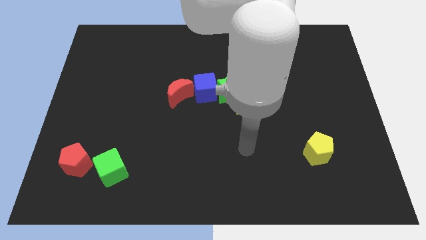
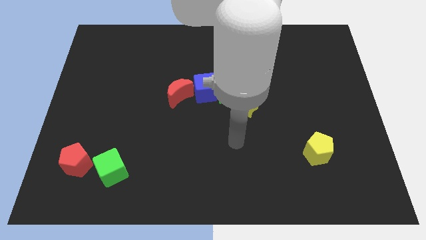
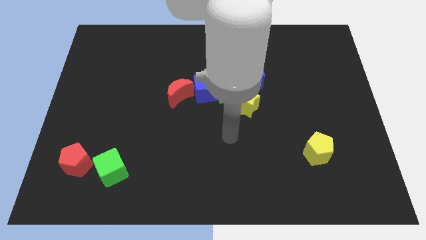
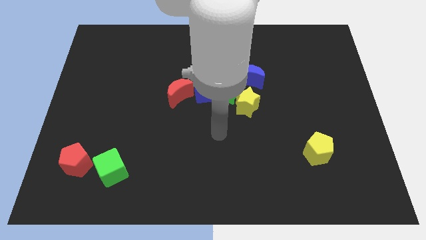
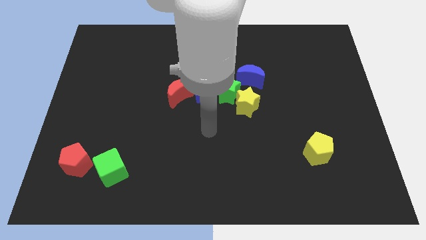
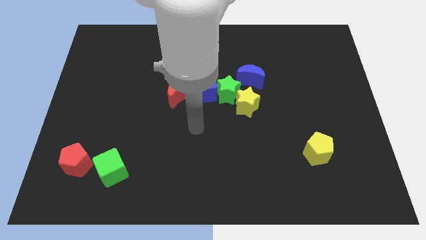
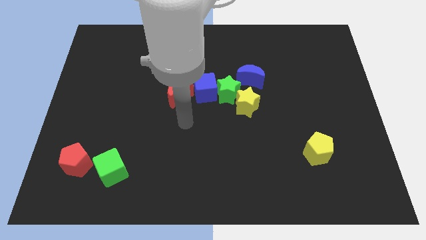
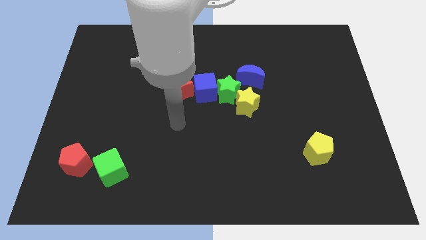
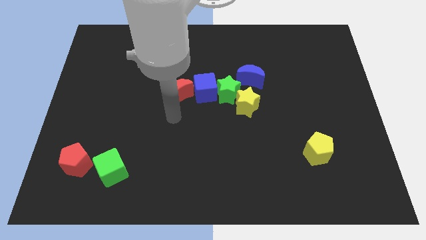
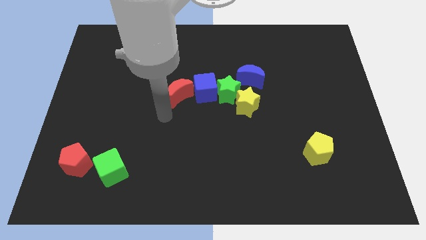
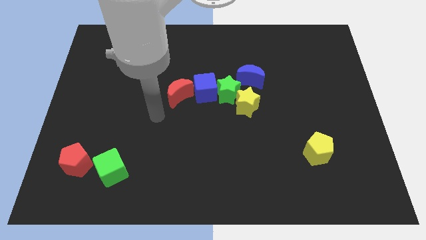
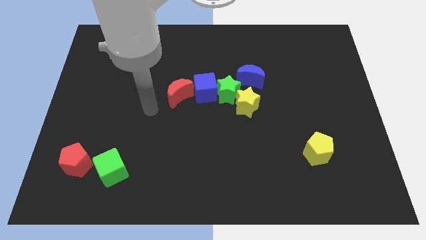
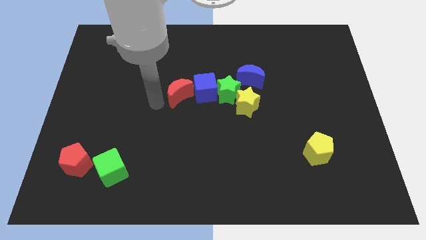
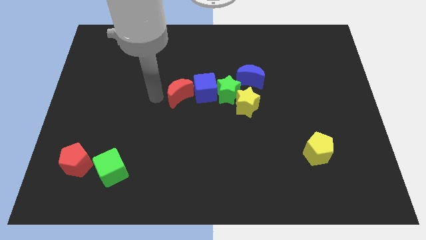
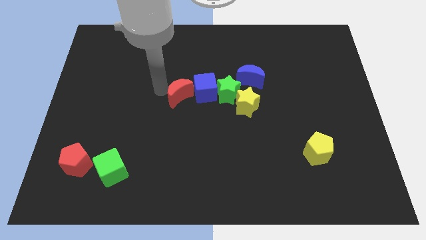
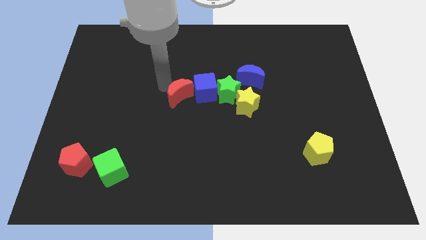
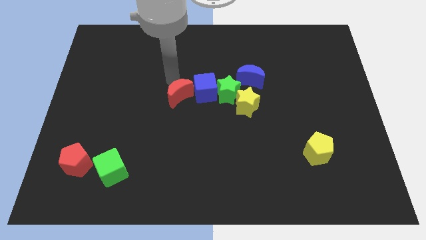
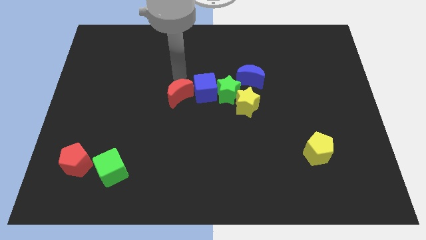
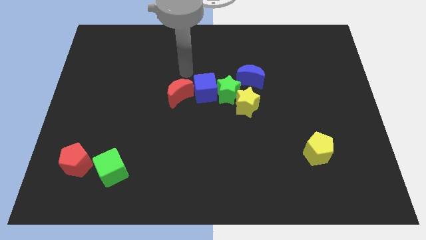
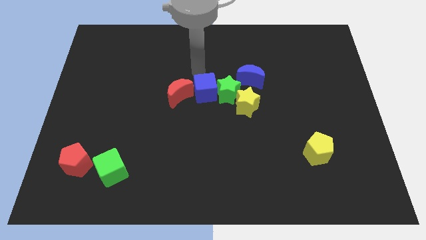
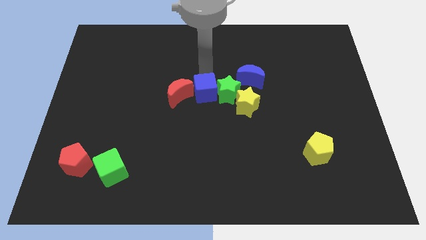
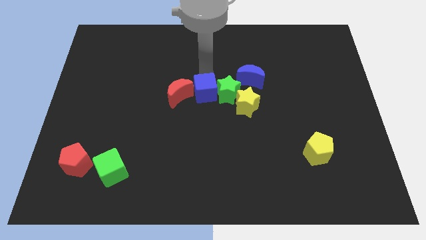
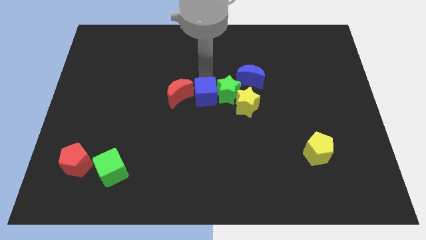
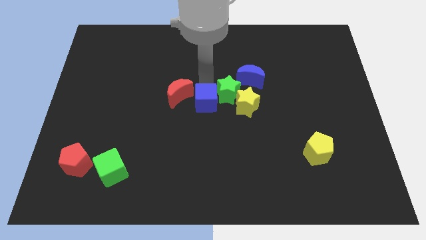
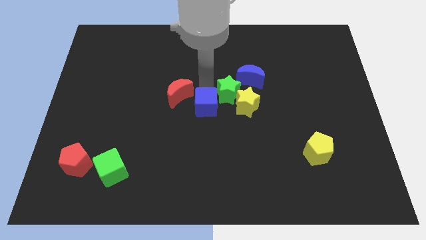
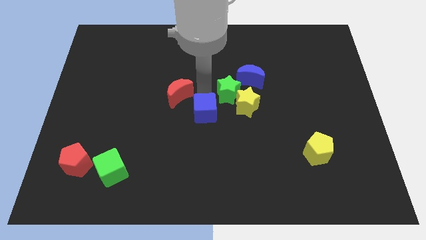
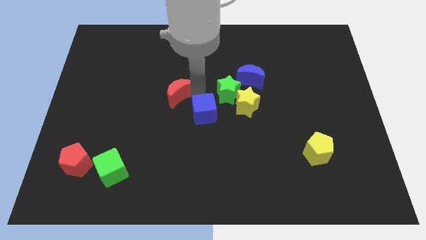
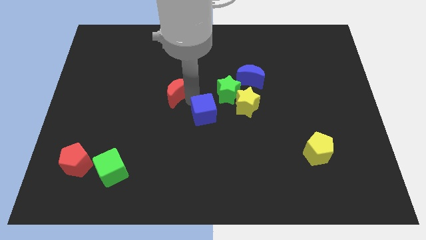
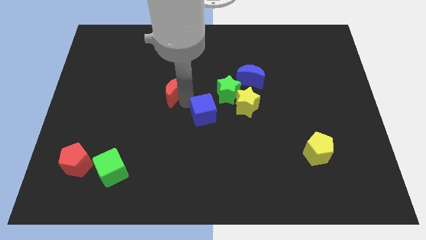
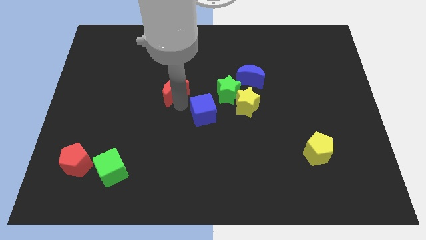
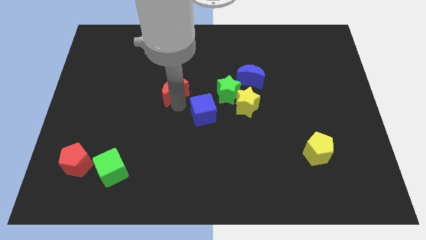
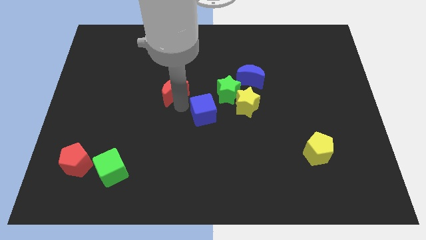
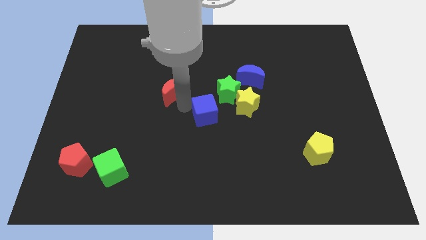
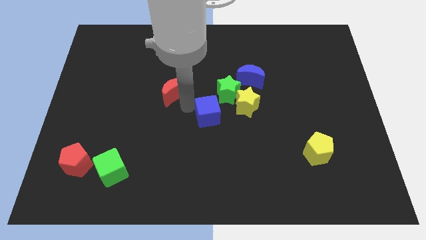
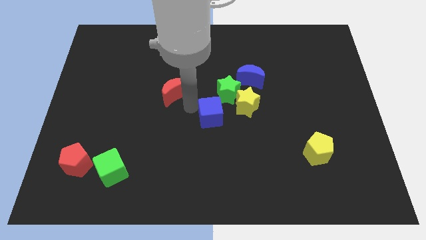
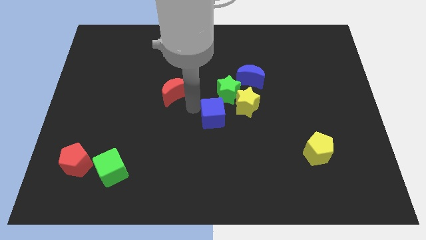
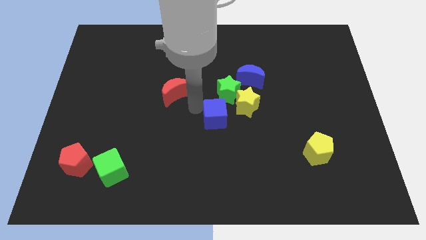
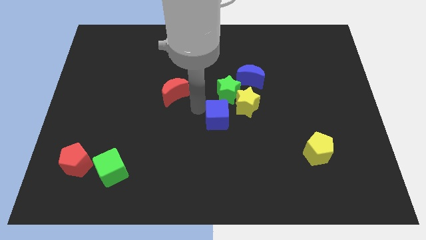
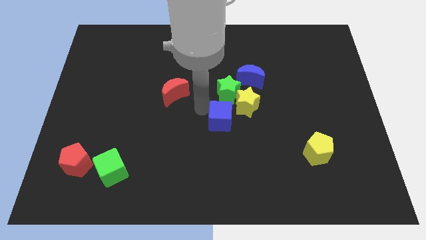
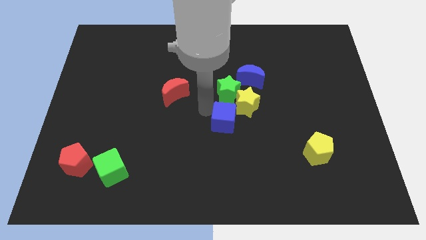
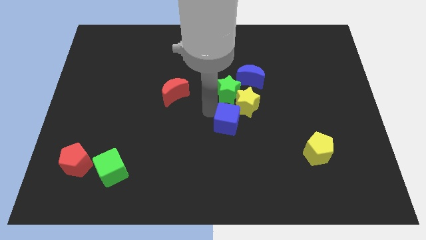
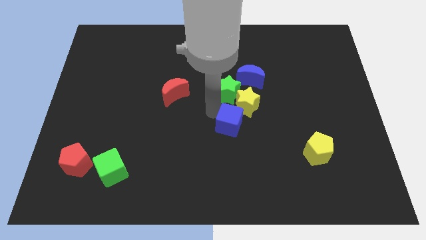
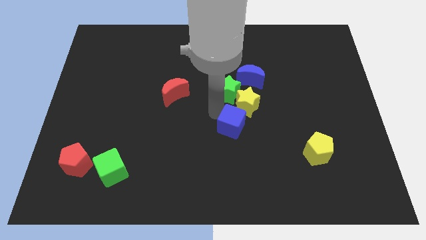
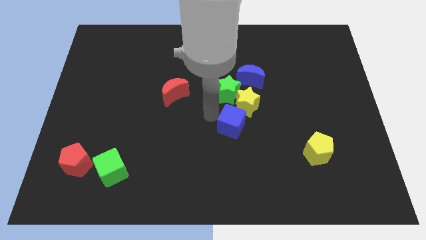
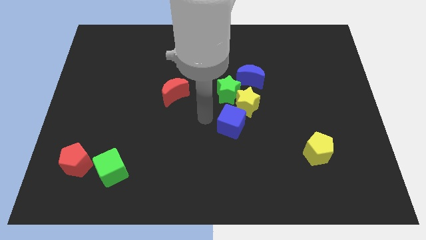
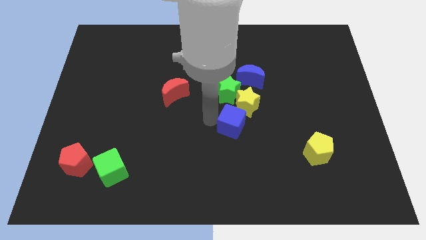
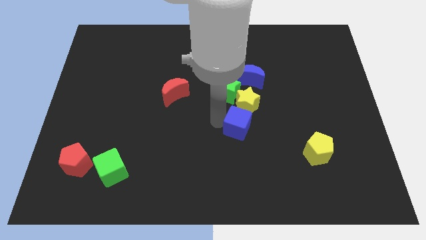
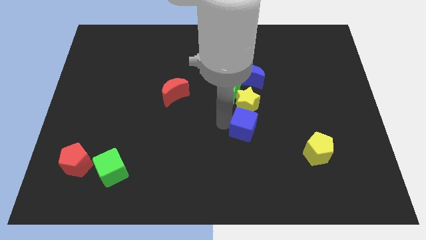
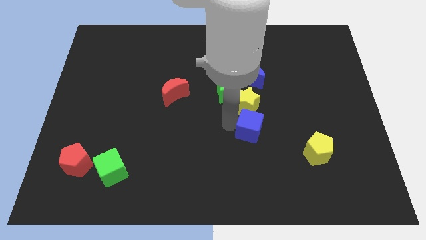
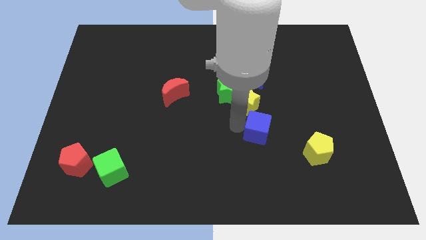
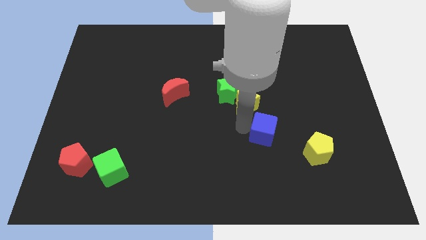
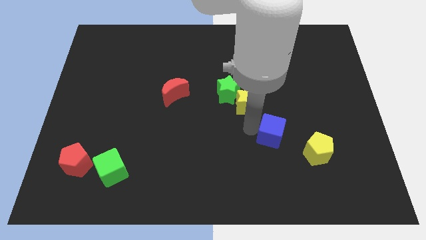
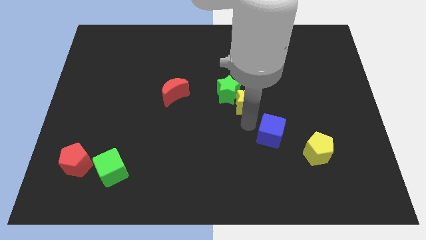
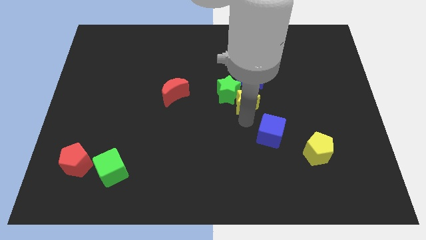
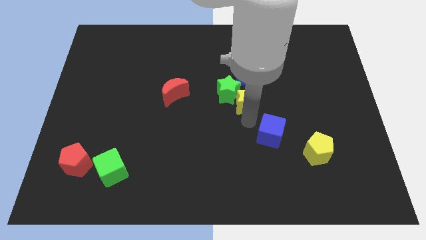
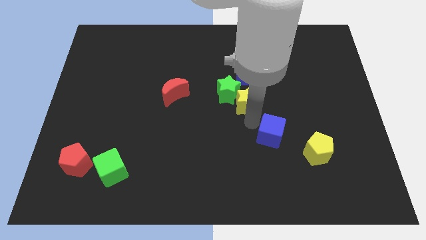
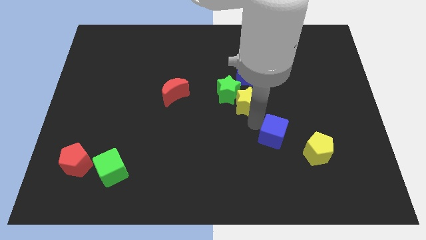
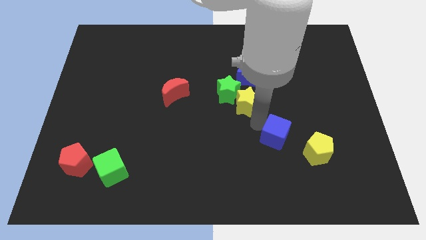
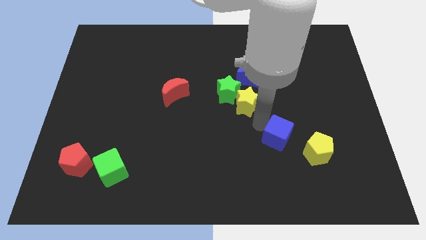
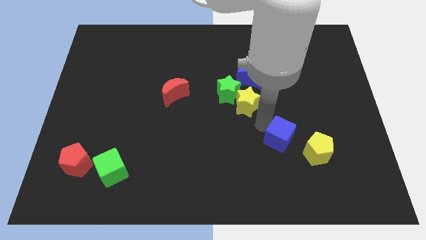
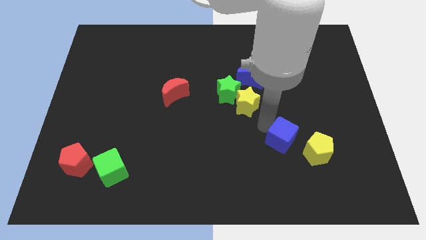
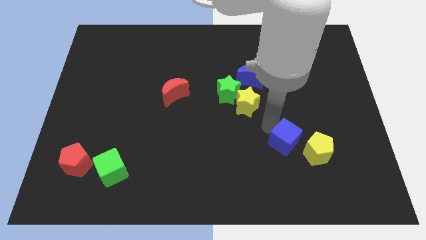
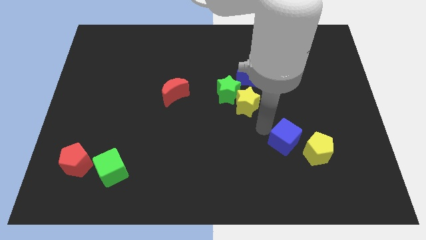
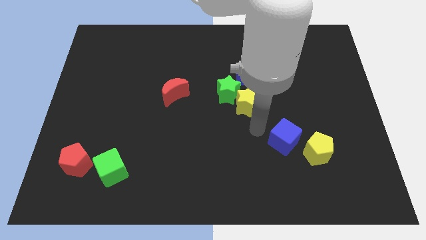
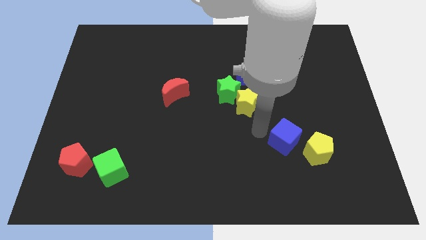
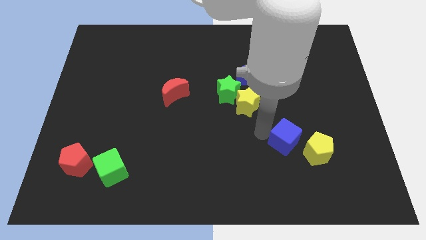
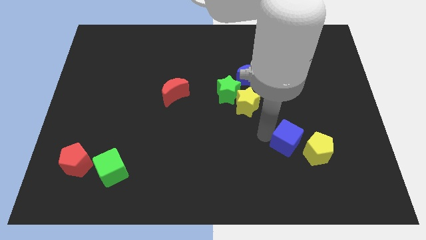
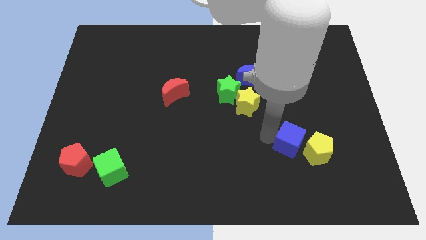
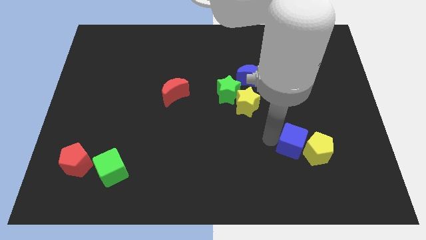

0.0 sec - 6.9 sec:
put the blue cube next to the yellow pentagon
